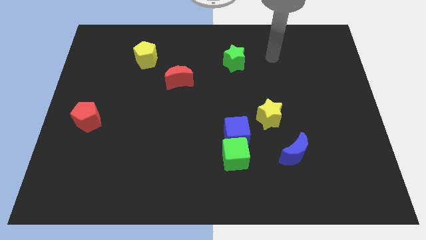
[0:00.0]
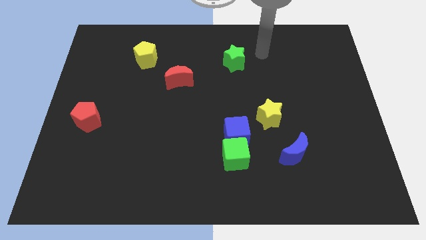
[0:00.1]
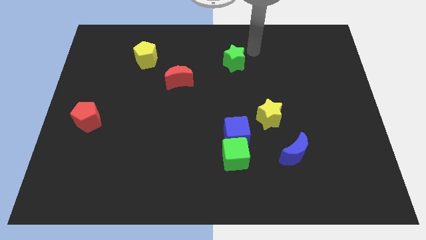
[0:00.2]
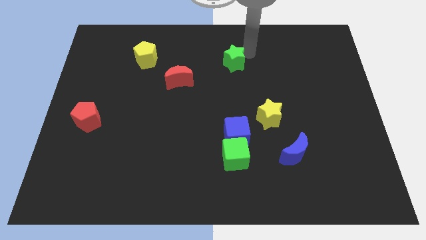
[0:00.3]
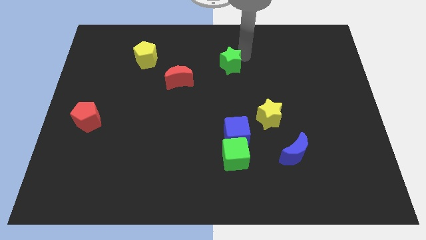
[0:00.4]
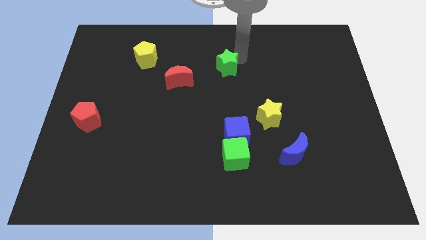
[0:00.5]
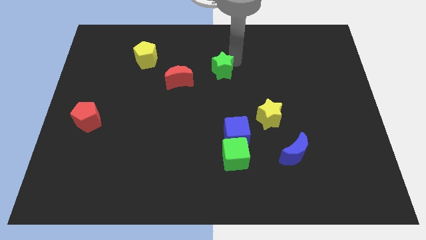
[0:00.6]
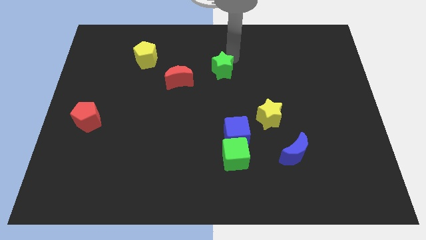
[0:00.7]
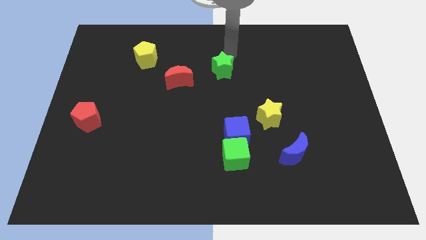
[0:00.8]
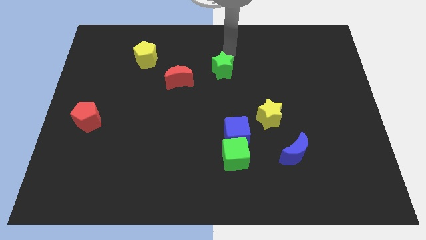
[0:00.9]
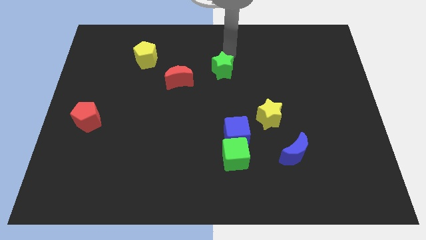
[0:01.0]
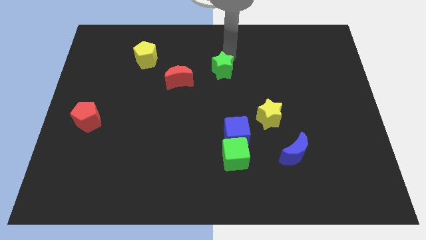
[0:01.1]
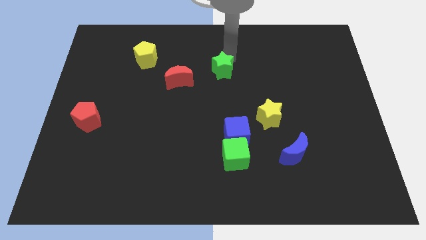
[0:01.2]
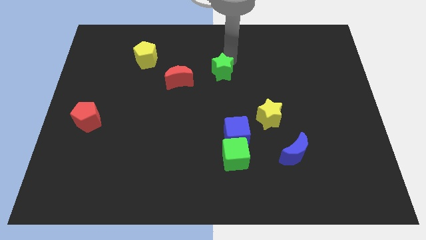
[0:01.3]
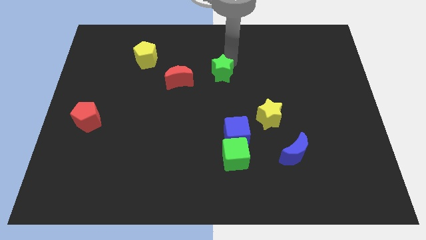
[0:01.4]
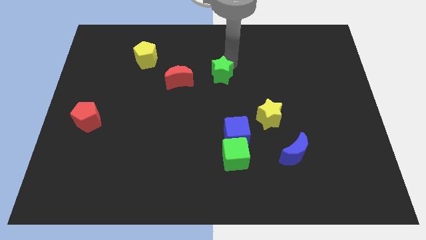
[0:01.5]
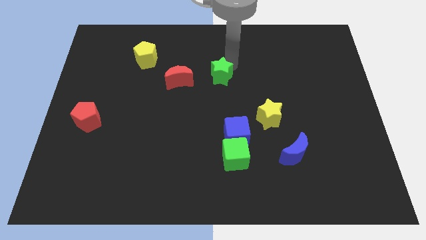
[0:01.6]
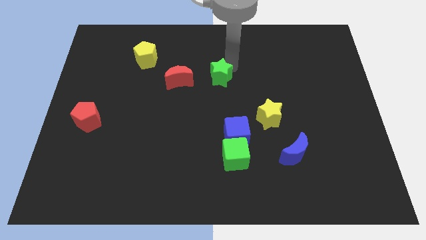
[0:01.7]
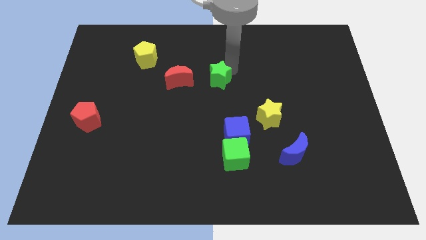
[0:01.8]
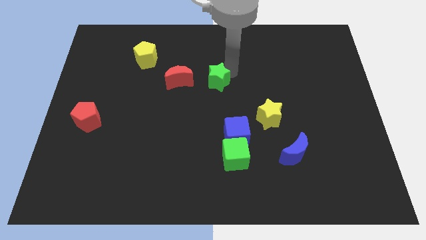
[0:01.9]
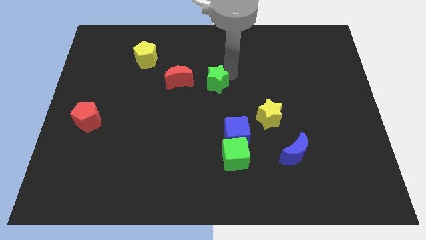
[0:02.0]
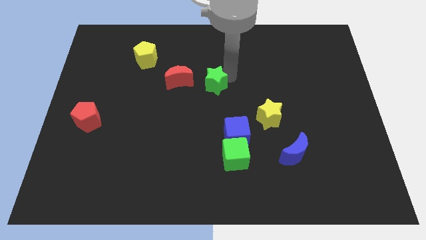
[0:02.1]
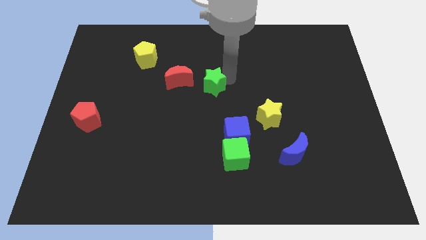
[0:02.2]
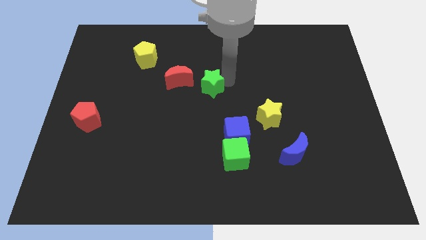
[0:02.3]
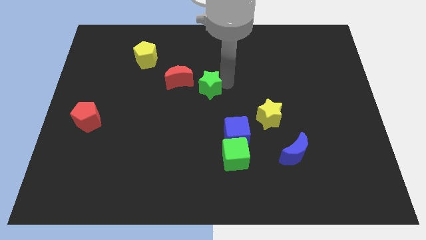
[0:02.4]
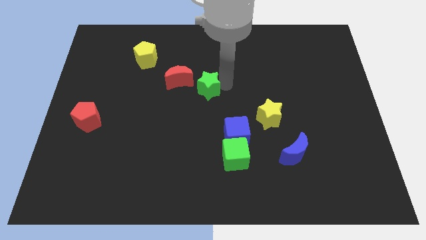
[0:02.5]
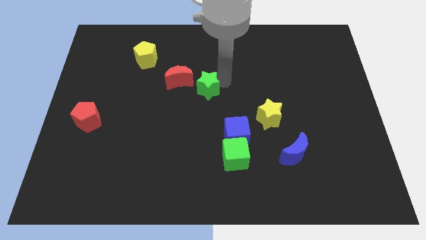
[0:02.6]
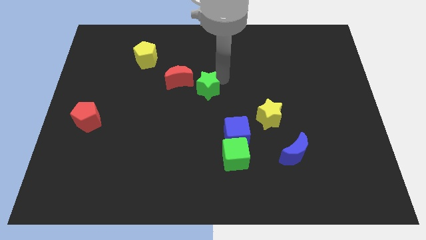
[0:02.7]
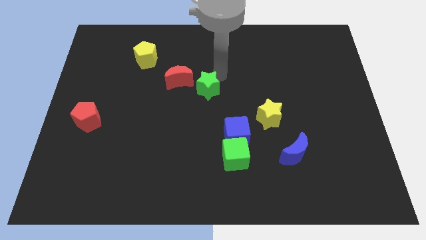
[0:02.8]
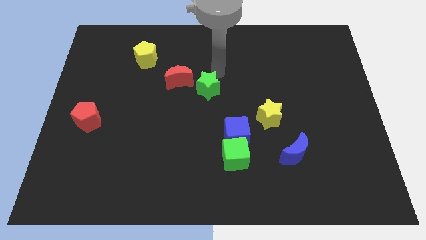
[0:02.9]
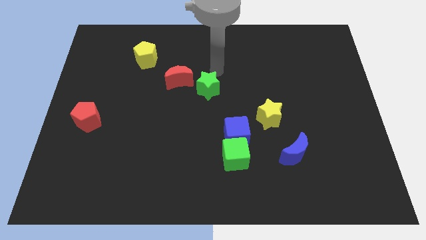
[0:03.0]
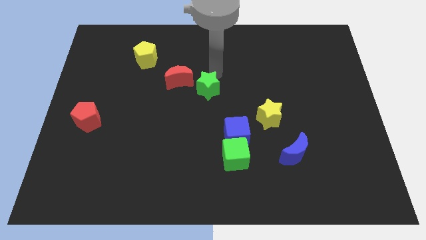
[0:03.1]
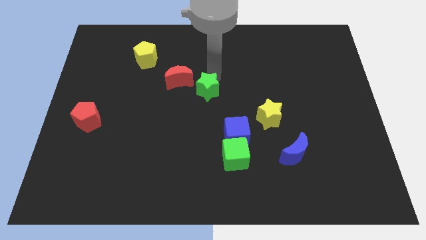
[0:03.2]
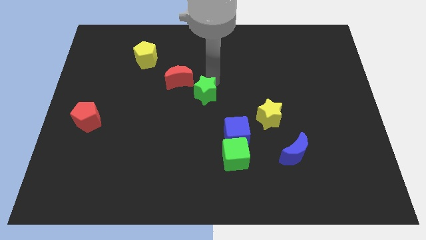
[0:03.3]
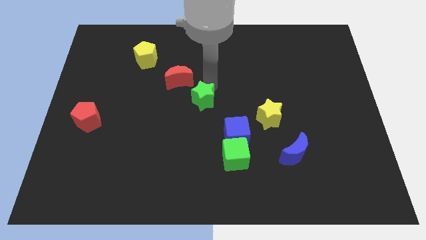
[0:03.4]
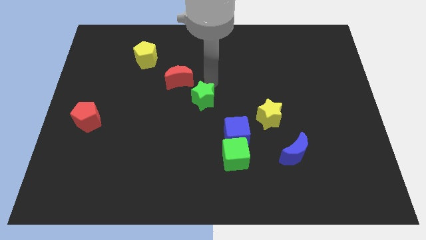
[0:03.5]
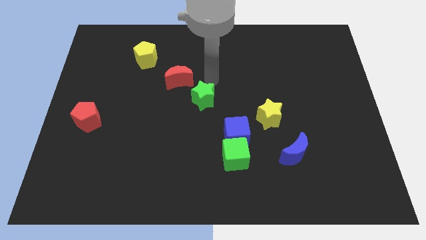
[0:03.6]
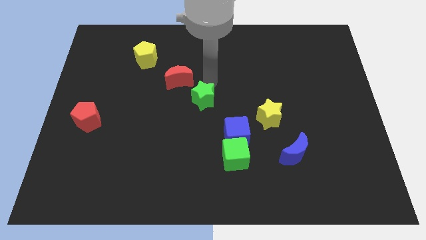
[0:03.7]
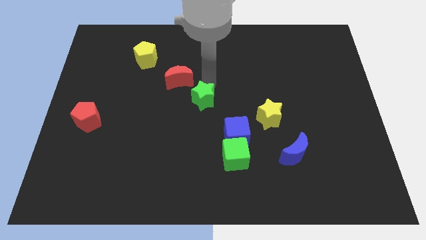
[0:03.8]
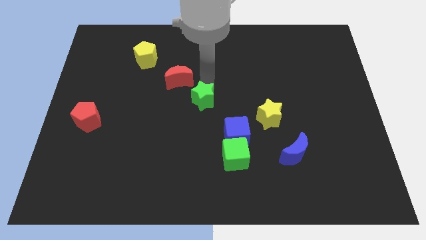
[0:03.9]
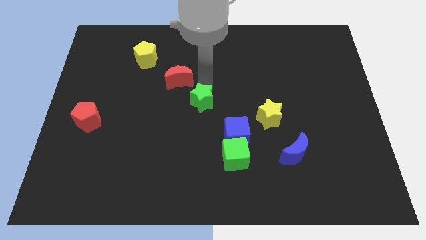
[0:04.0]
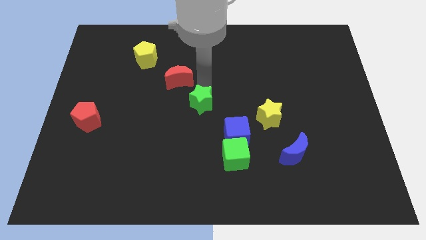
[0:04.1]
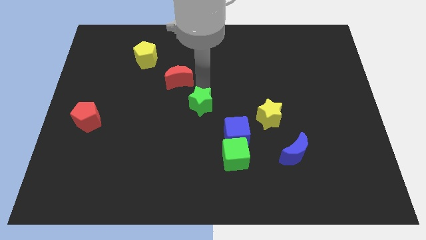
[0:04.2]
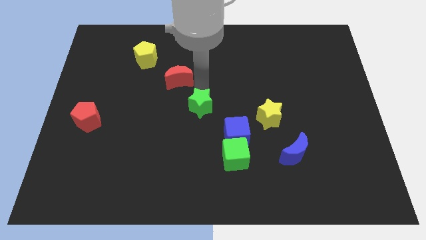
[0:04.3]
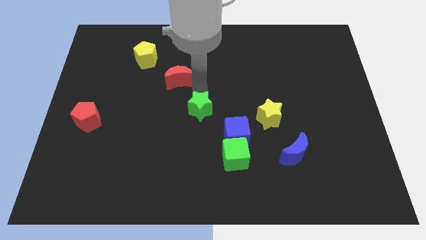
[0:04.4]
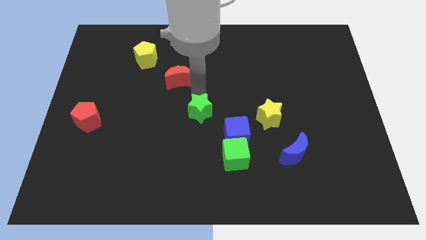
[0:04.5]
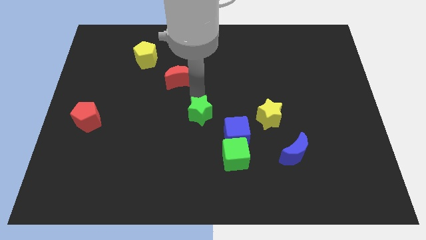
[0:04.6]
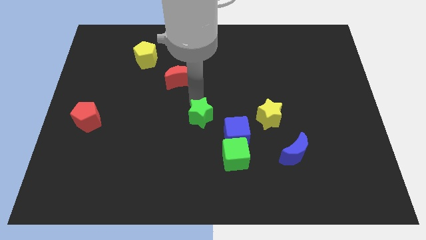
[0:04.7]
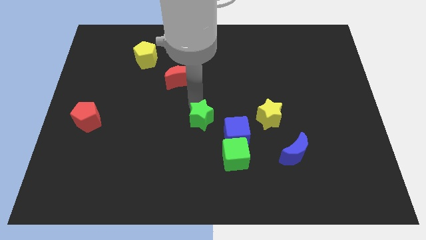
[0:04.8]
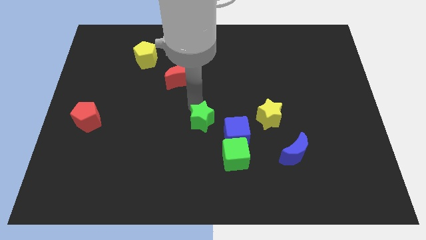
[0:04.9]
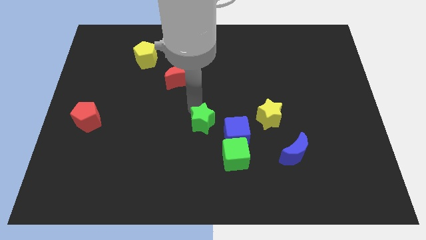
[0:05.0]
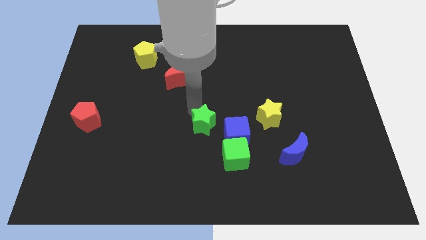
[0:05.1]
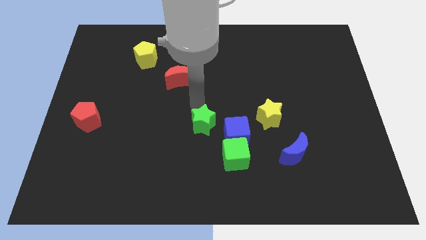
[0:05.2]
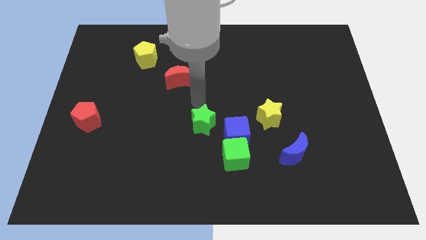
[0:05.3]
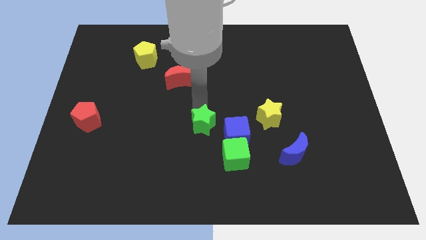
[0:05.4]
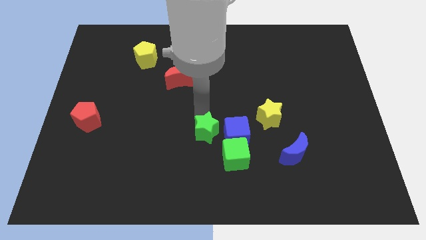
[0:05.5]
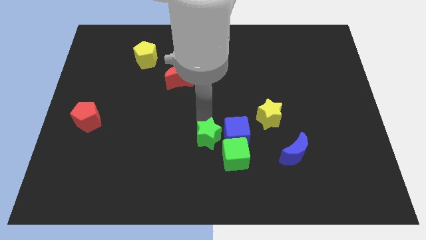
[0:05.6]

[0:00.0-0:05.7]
slide the green star to the bottom left of the blue cube

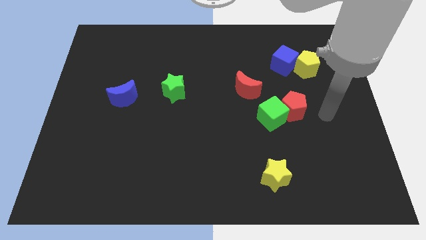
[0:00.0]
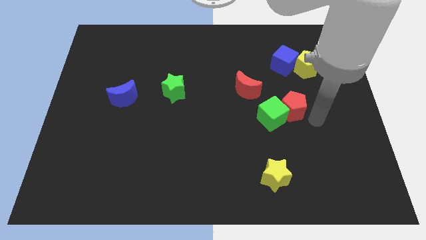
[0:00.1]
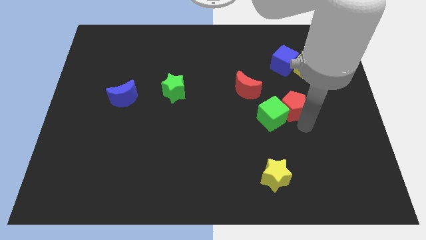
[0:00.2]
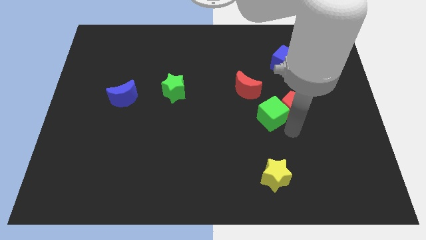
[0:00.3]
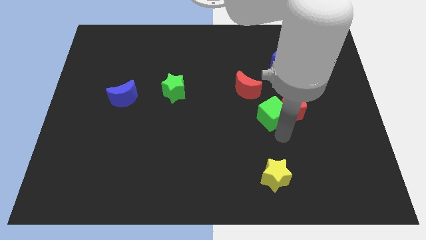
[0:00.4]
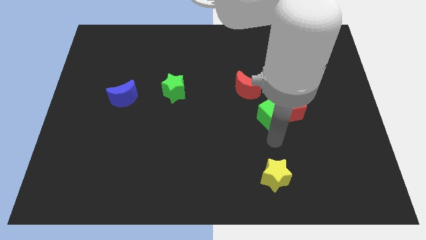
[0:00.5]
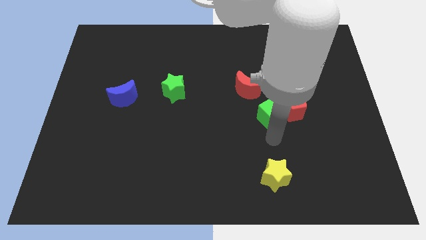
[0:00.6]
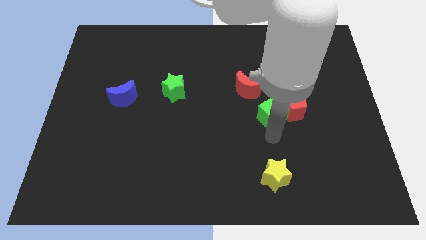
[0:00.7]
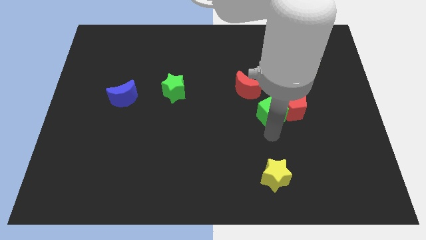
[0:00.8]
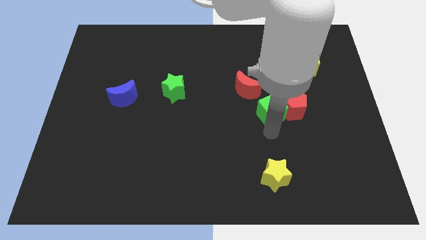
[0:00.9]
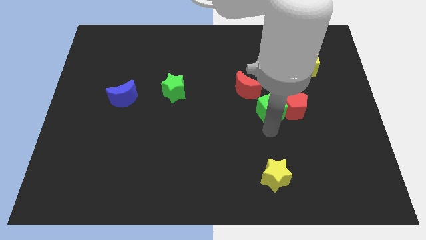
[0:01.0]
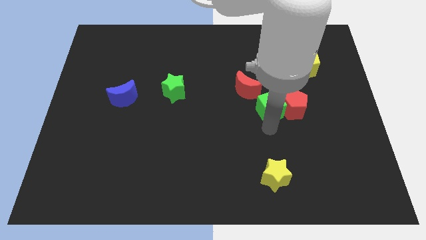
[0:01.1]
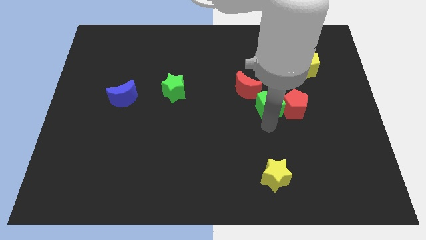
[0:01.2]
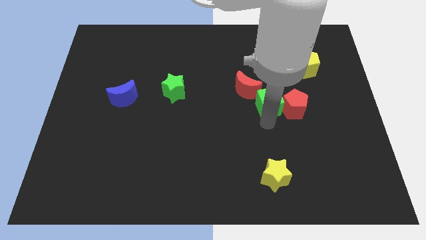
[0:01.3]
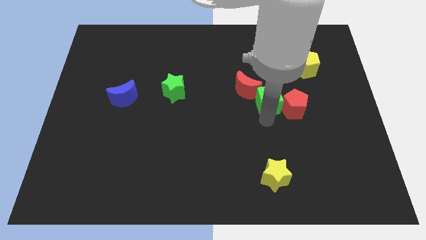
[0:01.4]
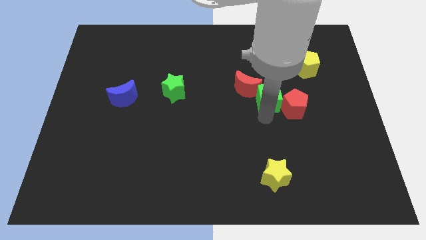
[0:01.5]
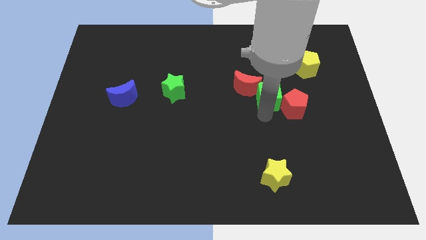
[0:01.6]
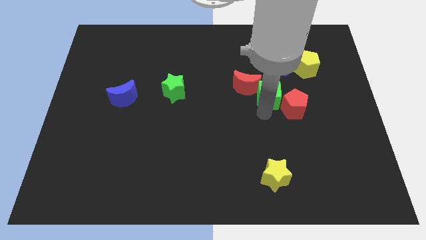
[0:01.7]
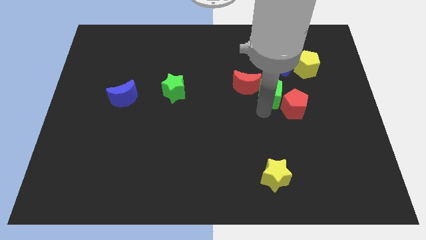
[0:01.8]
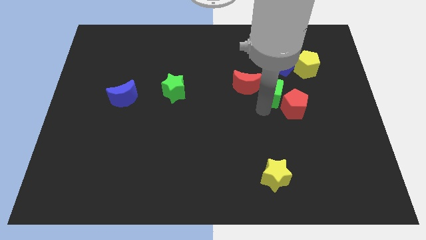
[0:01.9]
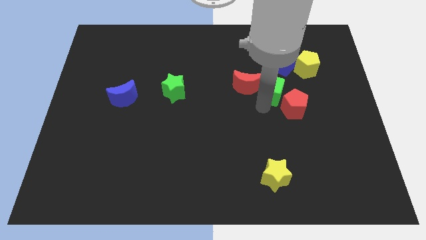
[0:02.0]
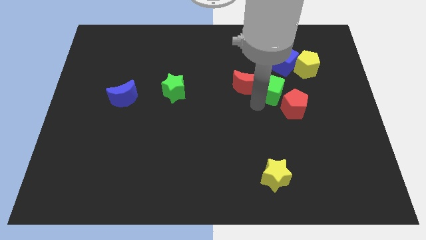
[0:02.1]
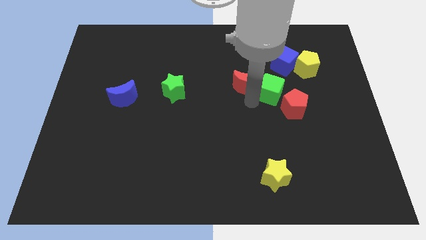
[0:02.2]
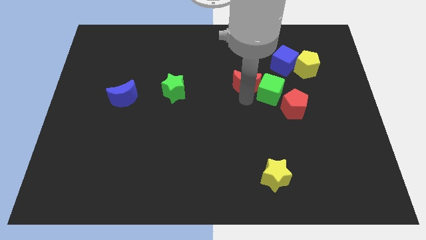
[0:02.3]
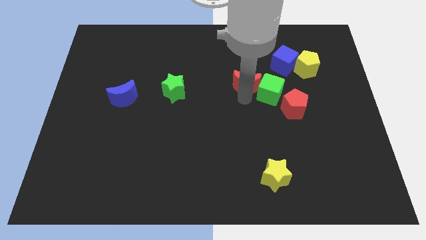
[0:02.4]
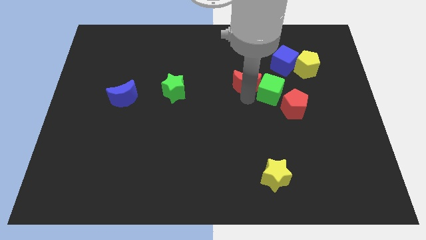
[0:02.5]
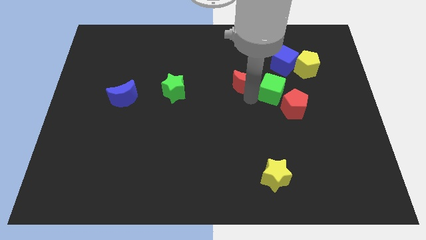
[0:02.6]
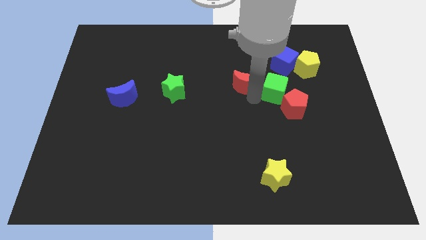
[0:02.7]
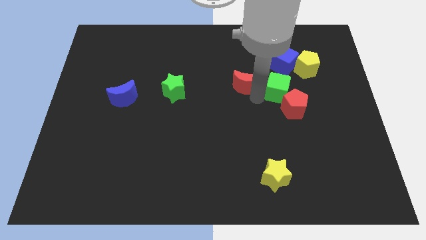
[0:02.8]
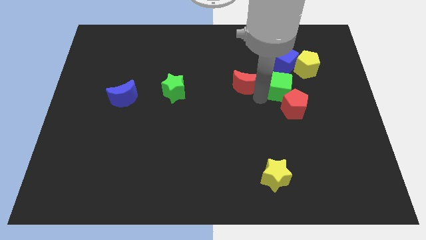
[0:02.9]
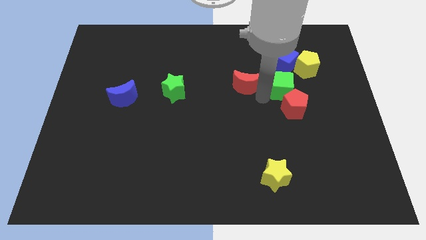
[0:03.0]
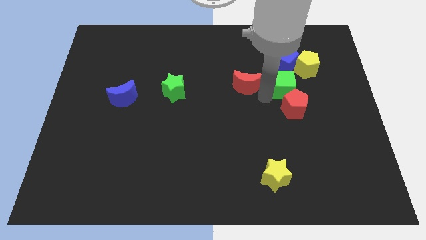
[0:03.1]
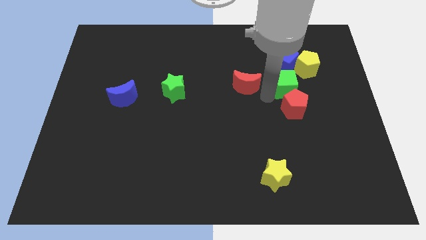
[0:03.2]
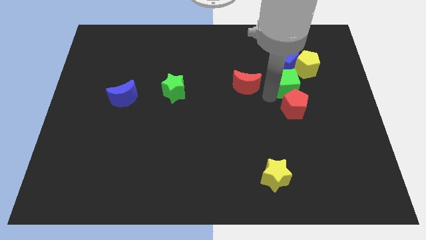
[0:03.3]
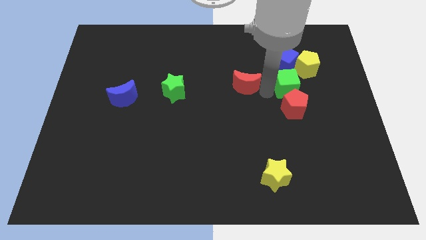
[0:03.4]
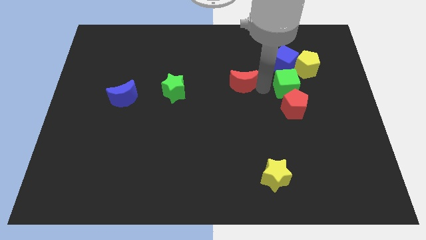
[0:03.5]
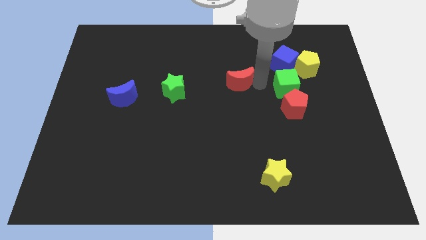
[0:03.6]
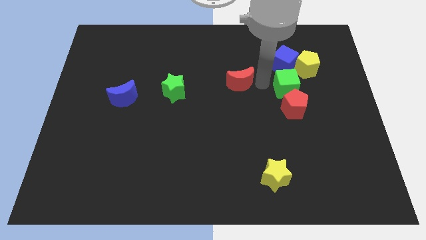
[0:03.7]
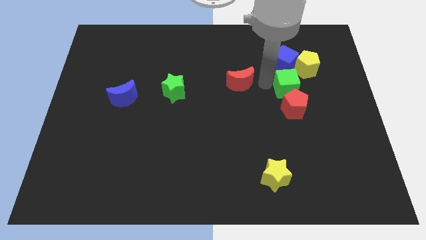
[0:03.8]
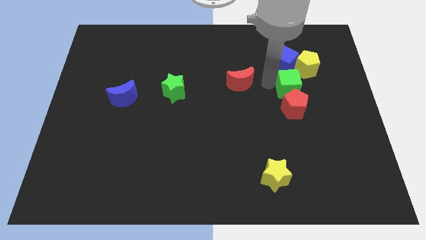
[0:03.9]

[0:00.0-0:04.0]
push the green cube to the top right side of the red pentagon
